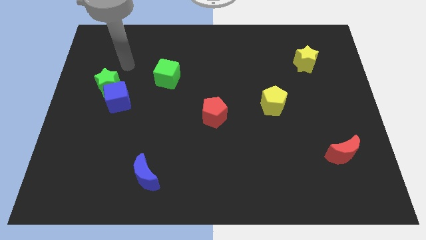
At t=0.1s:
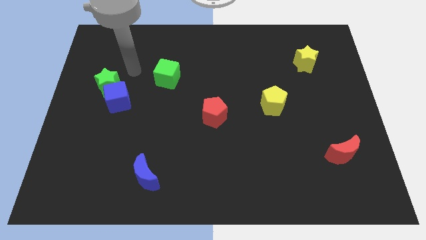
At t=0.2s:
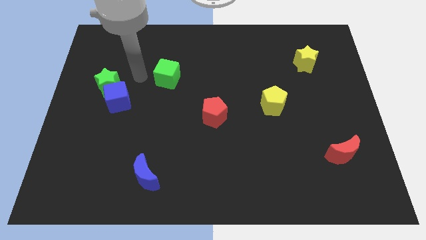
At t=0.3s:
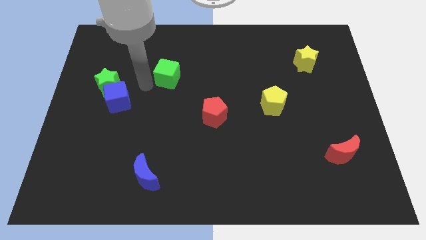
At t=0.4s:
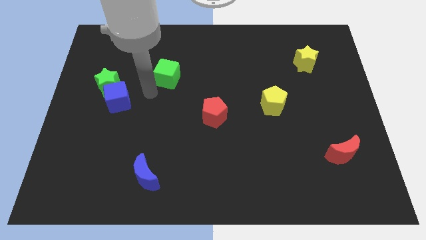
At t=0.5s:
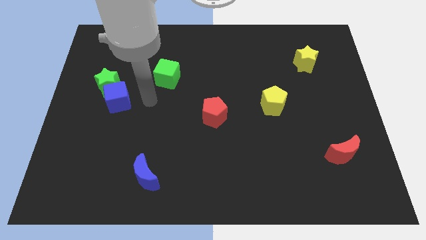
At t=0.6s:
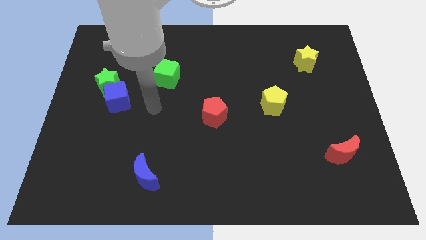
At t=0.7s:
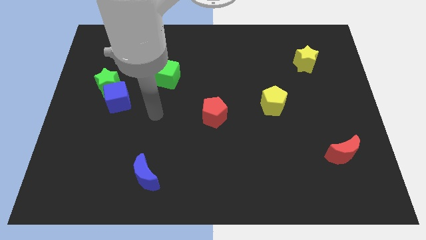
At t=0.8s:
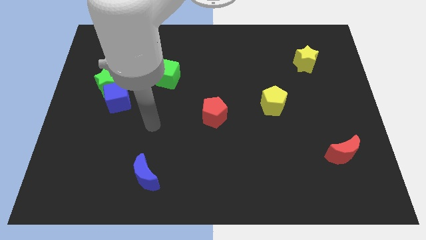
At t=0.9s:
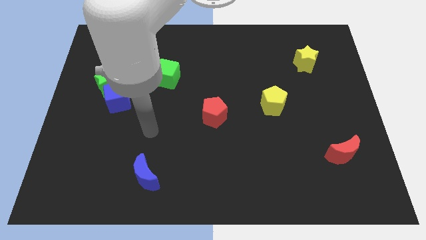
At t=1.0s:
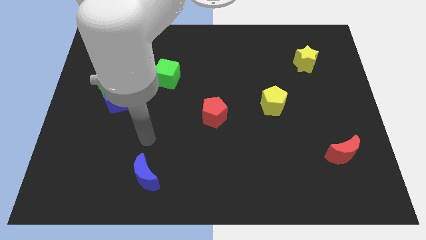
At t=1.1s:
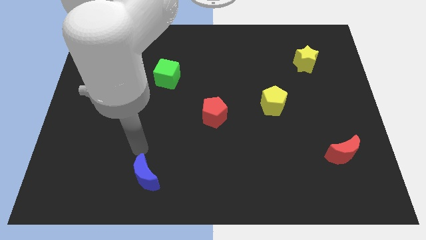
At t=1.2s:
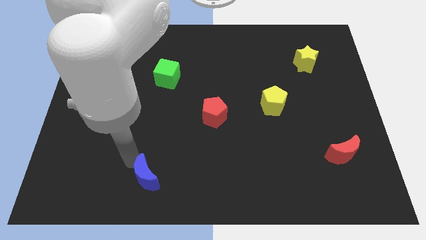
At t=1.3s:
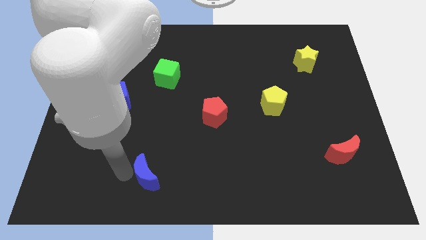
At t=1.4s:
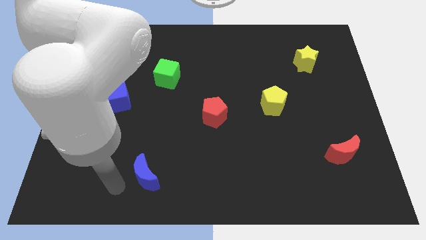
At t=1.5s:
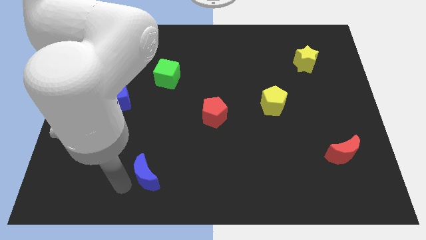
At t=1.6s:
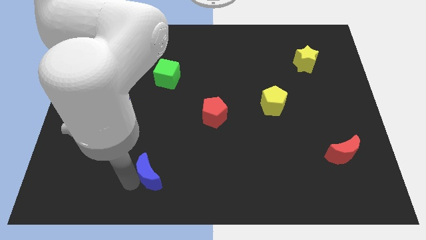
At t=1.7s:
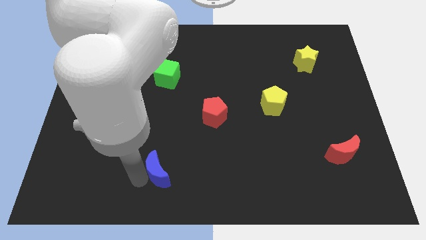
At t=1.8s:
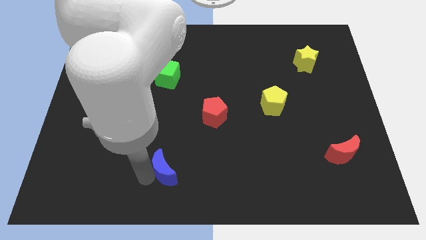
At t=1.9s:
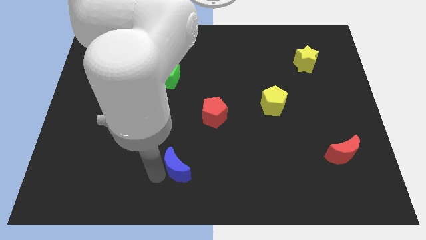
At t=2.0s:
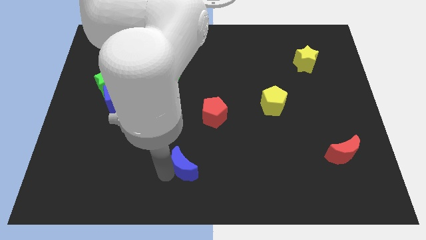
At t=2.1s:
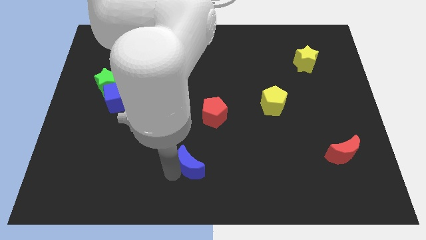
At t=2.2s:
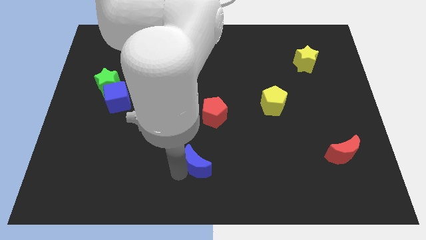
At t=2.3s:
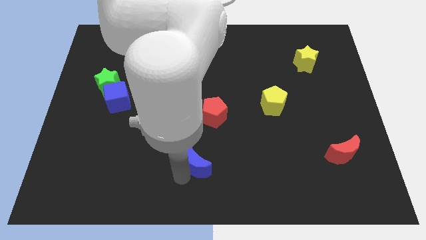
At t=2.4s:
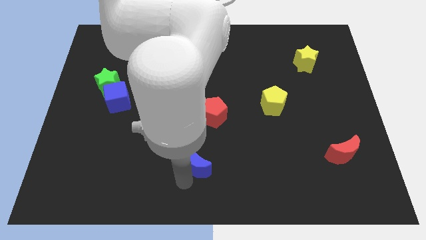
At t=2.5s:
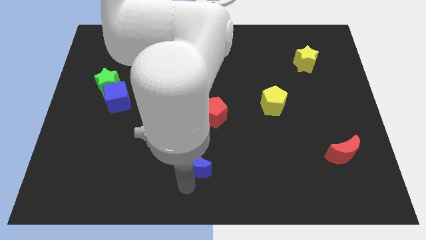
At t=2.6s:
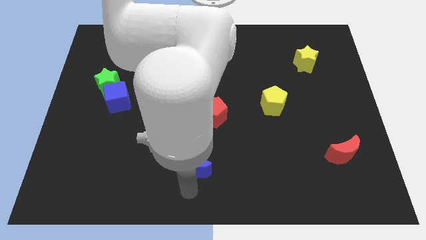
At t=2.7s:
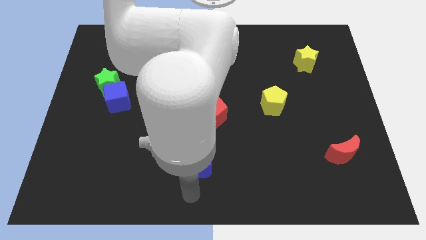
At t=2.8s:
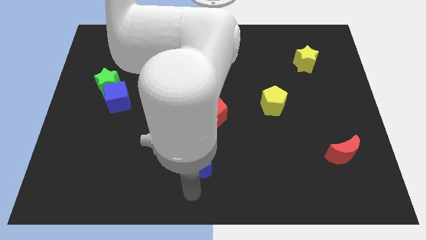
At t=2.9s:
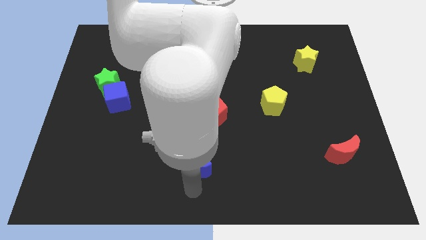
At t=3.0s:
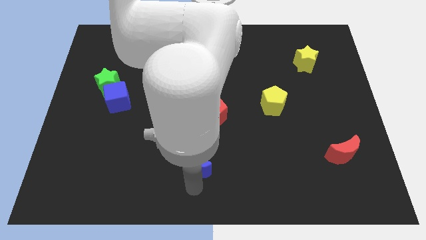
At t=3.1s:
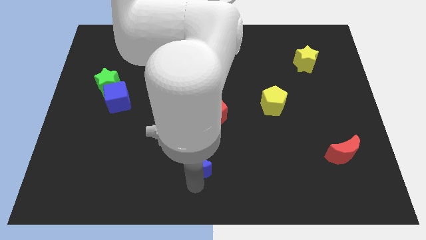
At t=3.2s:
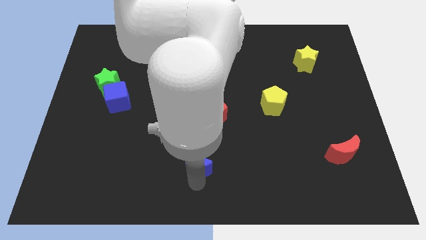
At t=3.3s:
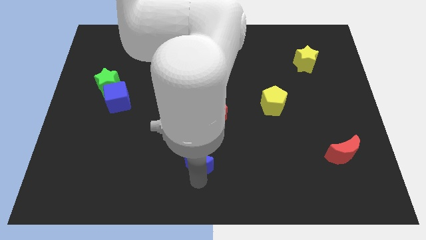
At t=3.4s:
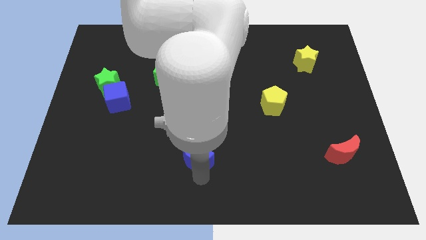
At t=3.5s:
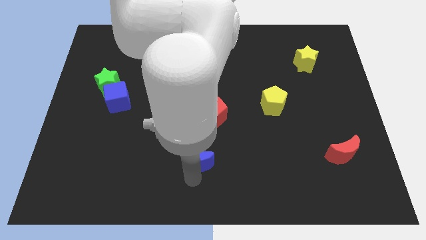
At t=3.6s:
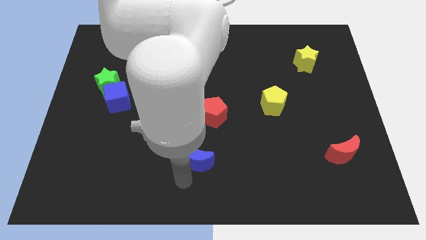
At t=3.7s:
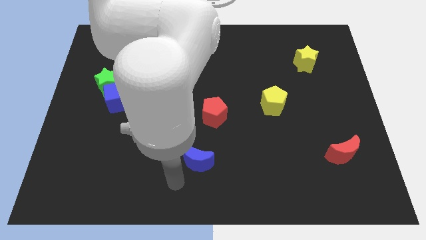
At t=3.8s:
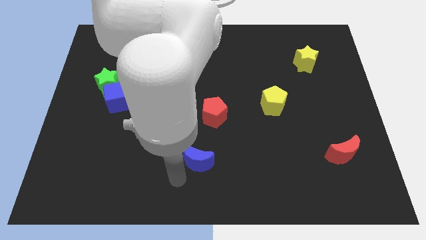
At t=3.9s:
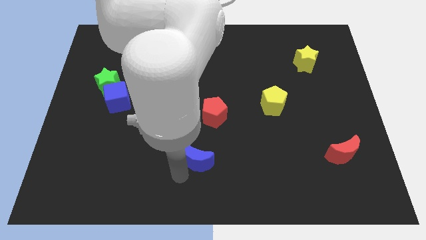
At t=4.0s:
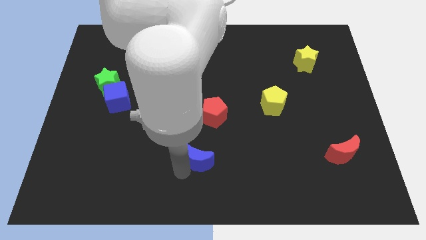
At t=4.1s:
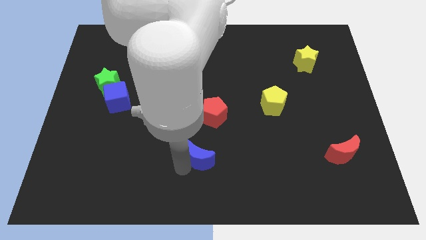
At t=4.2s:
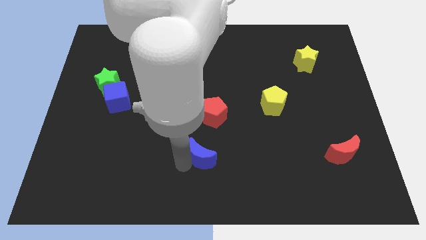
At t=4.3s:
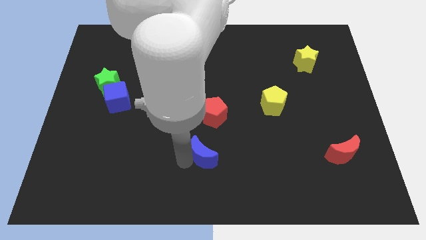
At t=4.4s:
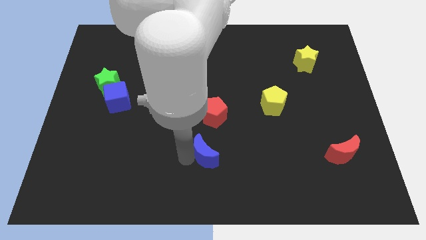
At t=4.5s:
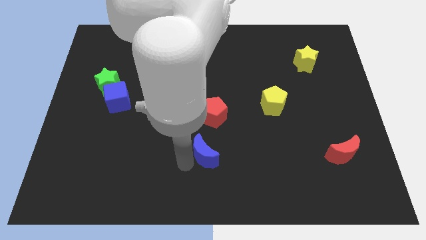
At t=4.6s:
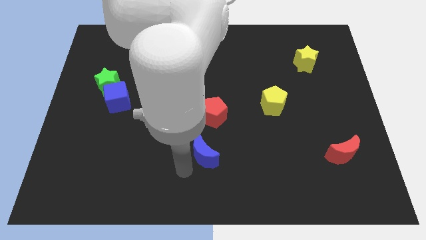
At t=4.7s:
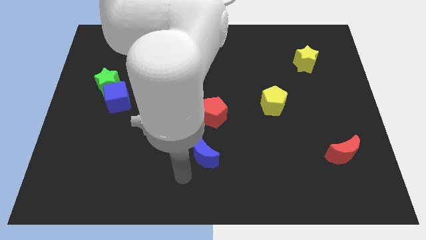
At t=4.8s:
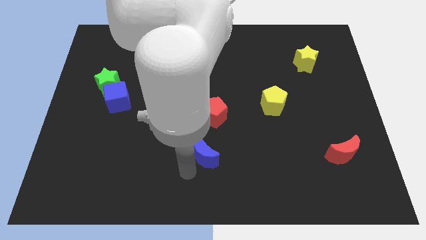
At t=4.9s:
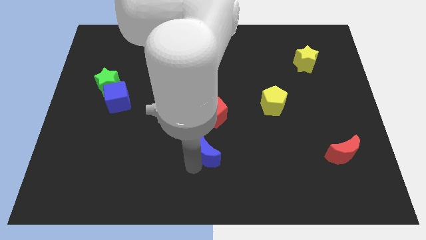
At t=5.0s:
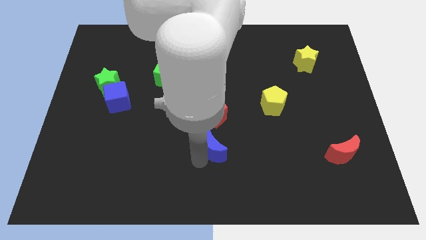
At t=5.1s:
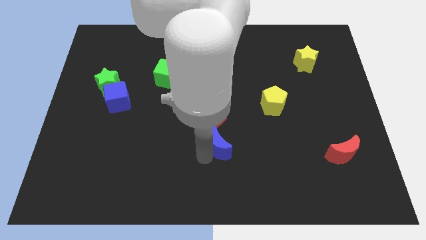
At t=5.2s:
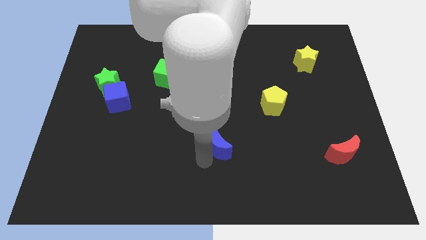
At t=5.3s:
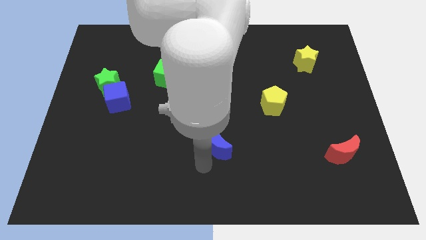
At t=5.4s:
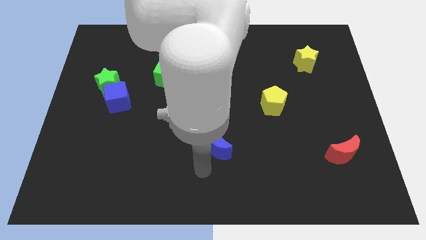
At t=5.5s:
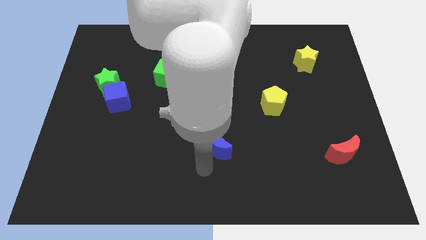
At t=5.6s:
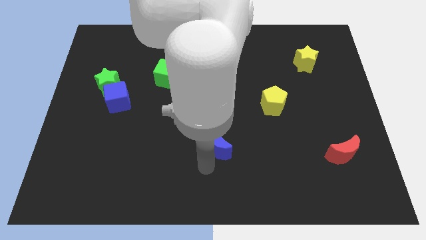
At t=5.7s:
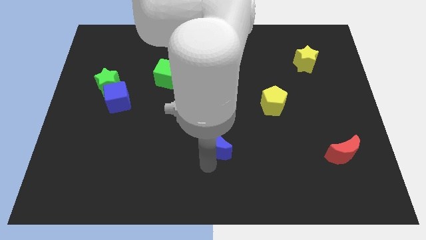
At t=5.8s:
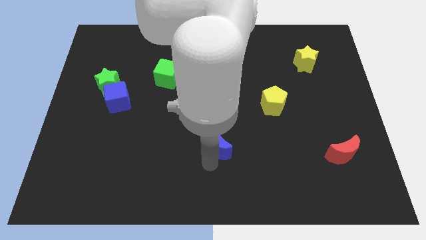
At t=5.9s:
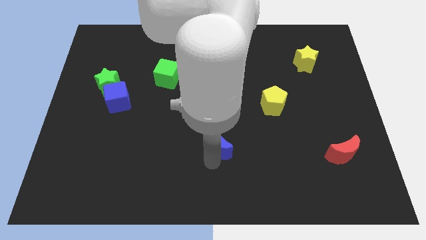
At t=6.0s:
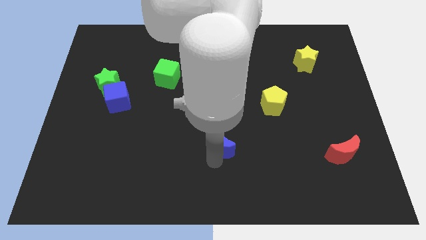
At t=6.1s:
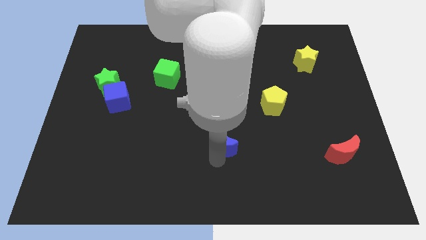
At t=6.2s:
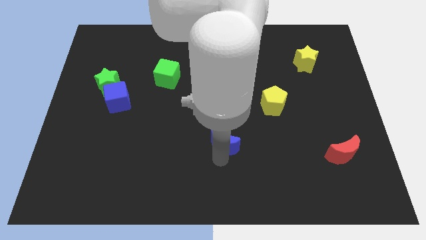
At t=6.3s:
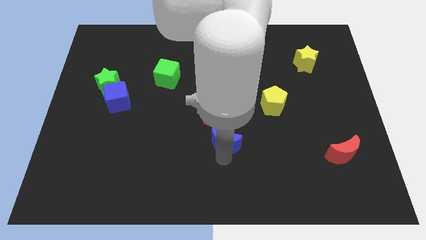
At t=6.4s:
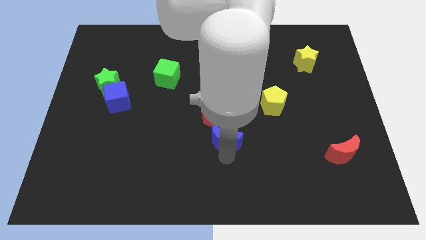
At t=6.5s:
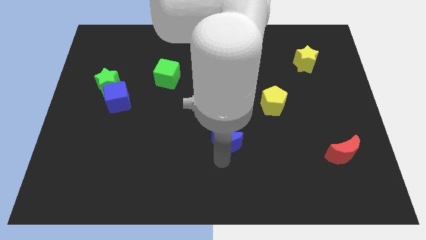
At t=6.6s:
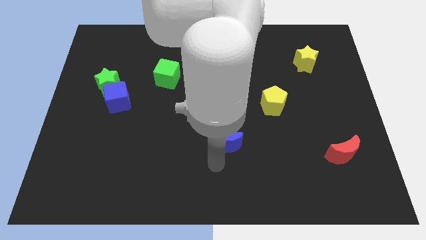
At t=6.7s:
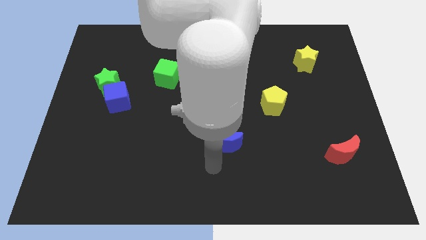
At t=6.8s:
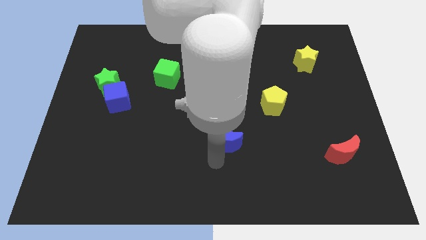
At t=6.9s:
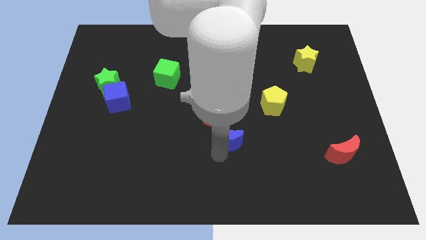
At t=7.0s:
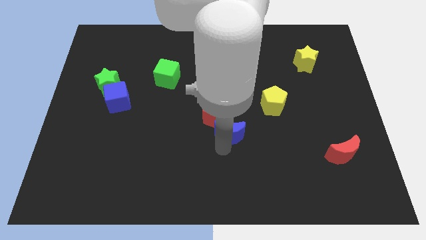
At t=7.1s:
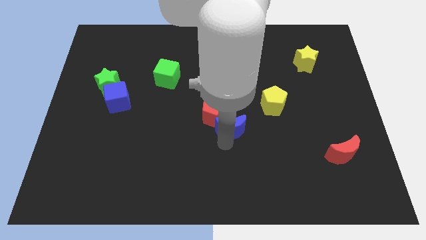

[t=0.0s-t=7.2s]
push the blue moon up and right diagonally

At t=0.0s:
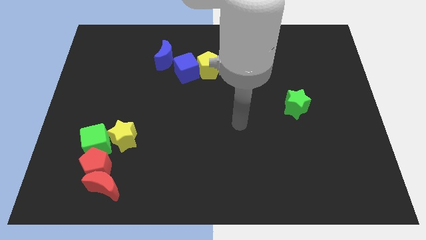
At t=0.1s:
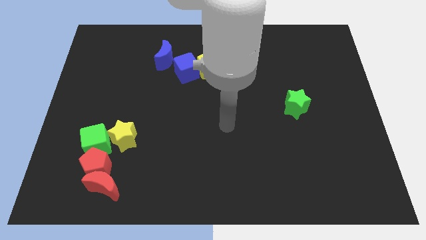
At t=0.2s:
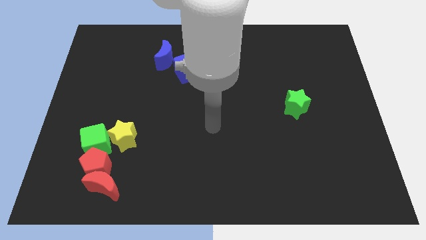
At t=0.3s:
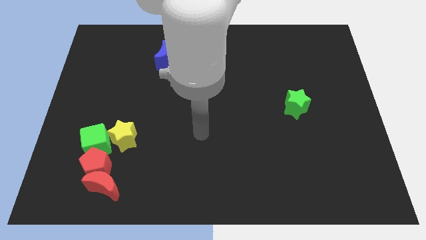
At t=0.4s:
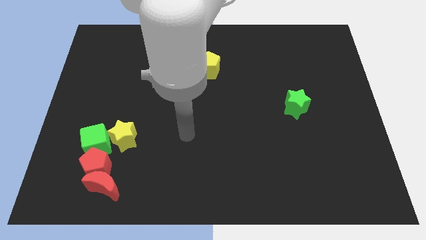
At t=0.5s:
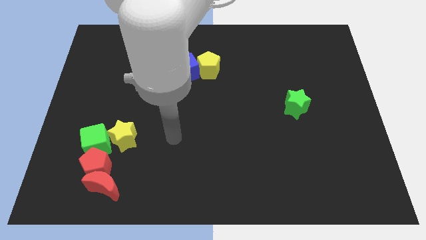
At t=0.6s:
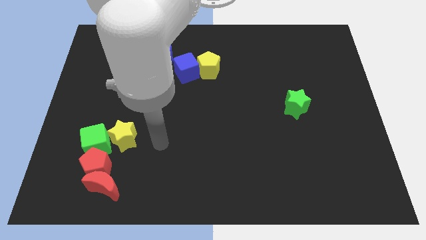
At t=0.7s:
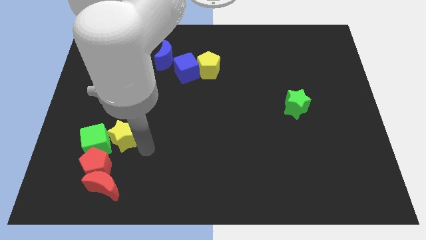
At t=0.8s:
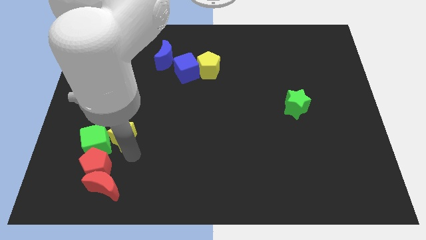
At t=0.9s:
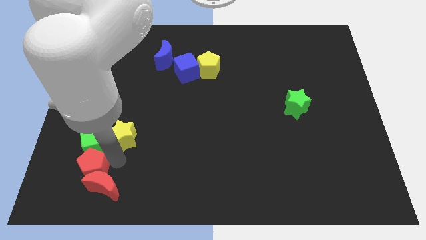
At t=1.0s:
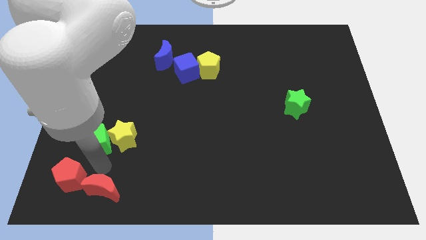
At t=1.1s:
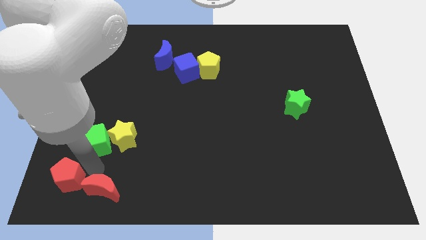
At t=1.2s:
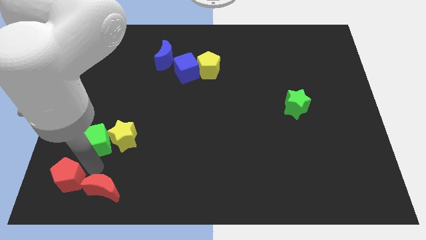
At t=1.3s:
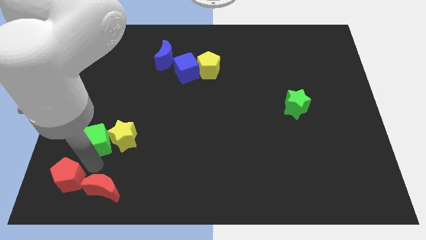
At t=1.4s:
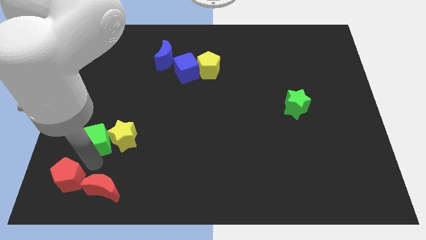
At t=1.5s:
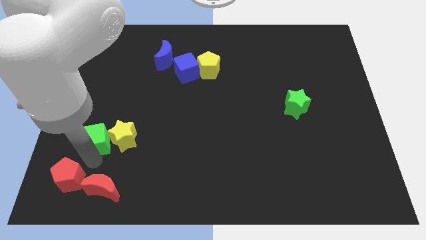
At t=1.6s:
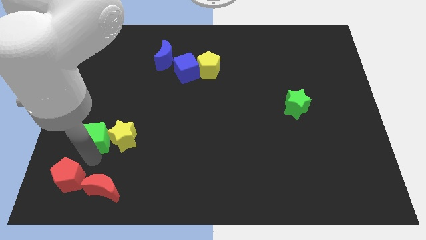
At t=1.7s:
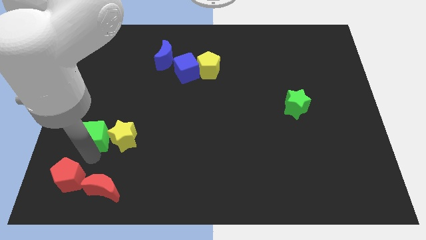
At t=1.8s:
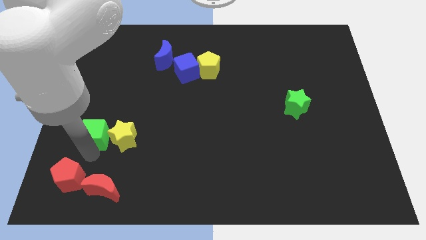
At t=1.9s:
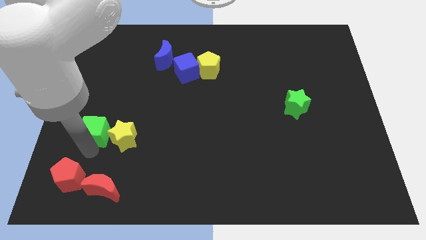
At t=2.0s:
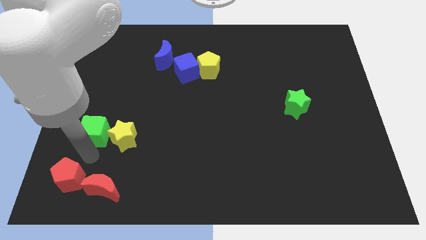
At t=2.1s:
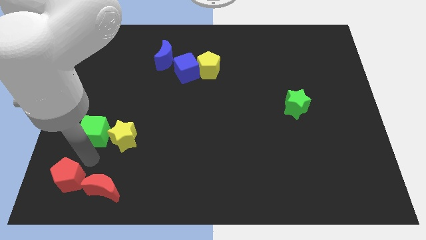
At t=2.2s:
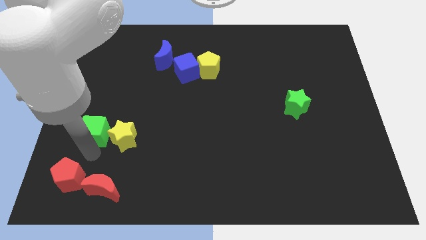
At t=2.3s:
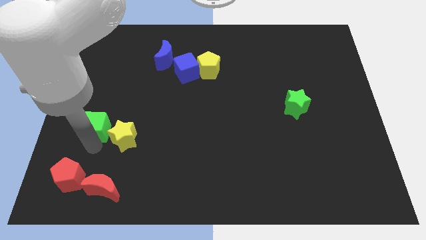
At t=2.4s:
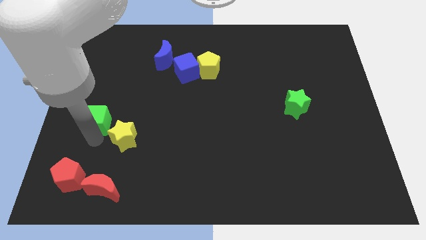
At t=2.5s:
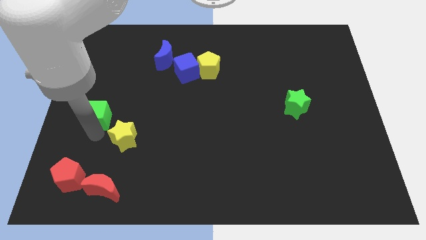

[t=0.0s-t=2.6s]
push the green cube up a bit
